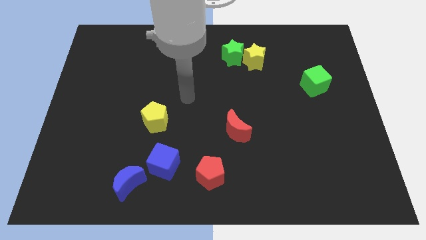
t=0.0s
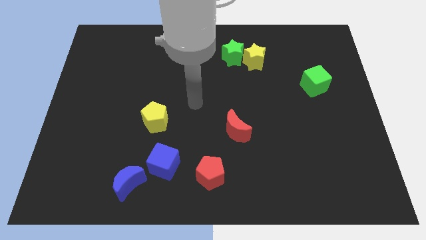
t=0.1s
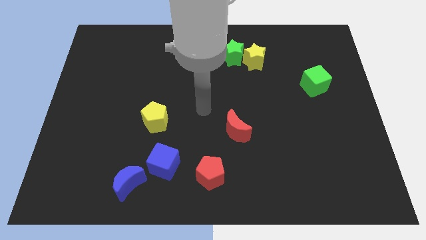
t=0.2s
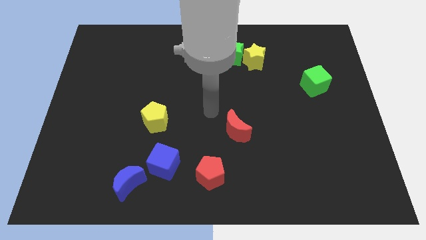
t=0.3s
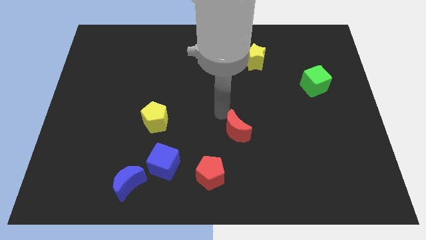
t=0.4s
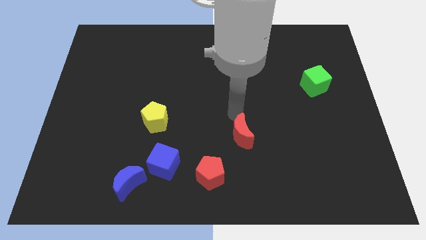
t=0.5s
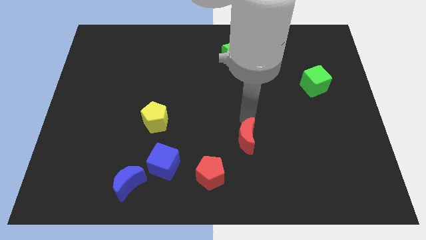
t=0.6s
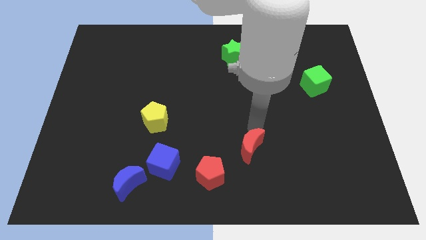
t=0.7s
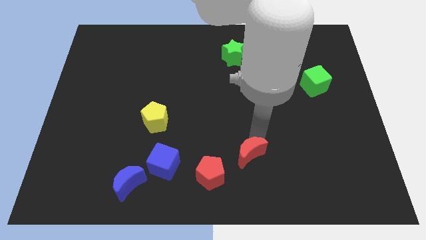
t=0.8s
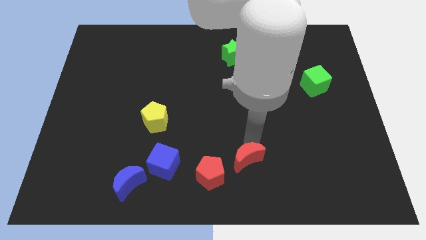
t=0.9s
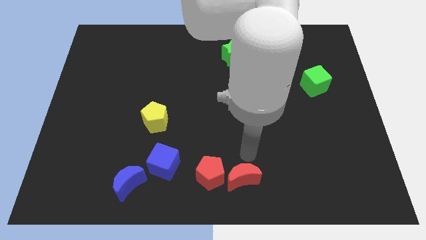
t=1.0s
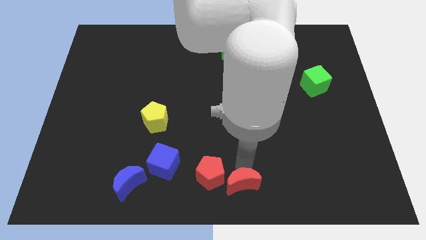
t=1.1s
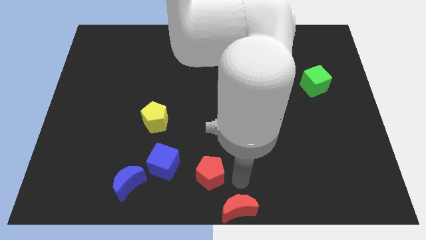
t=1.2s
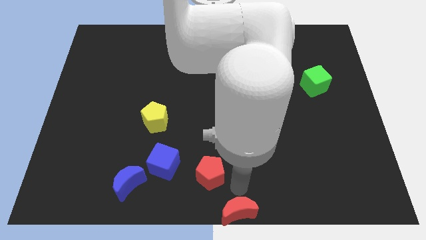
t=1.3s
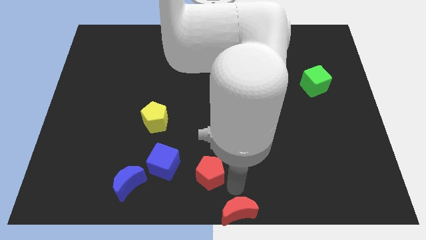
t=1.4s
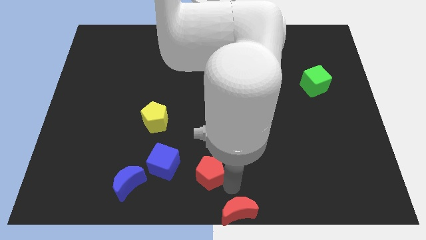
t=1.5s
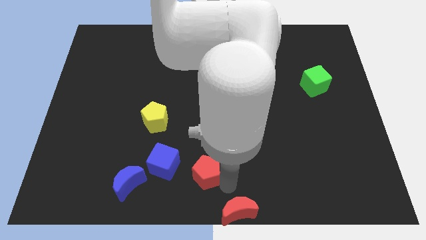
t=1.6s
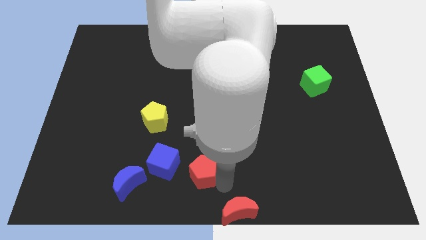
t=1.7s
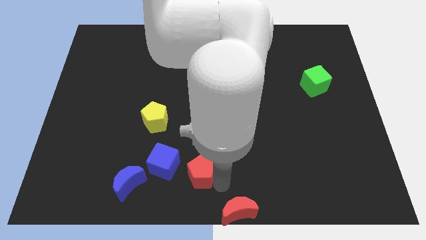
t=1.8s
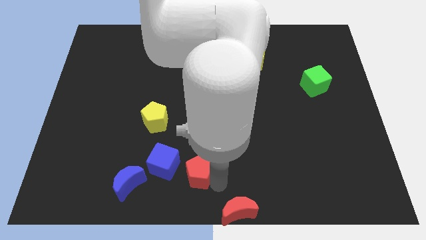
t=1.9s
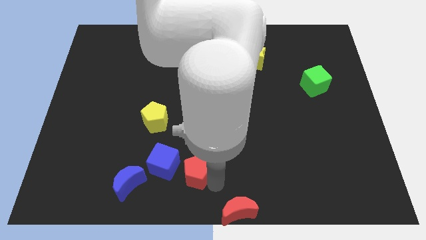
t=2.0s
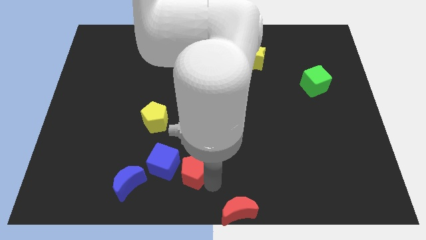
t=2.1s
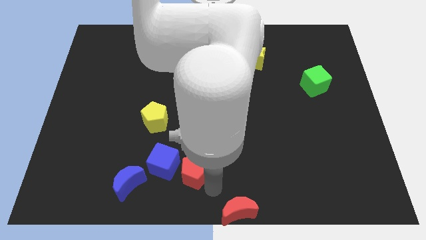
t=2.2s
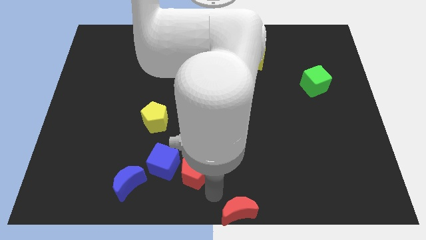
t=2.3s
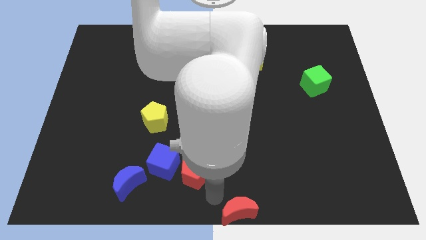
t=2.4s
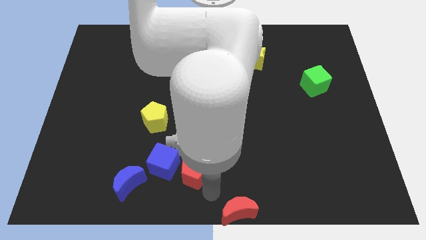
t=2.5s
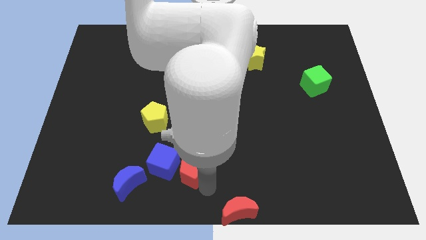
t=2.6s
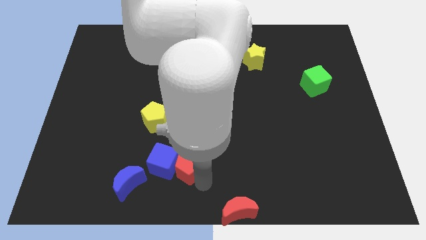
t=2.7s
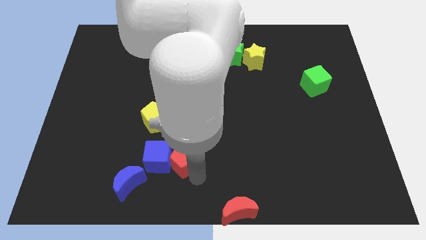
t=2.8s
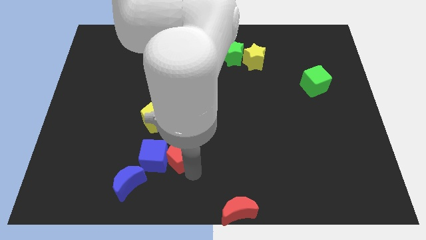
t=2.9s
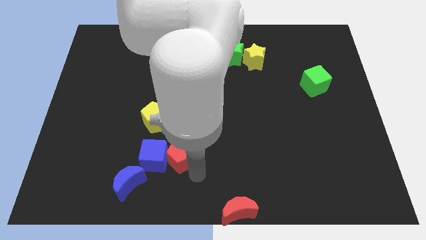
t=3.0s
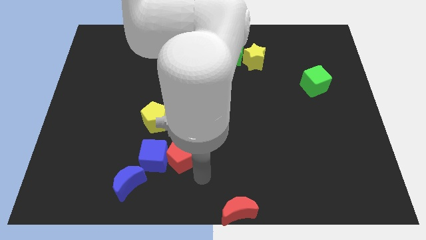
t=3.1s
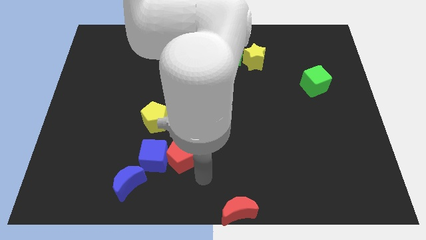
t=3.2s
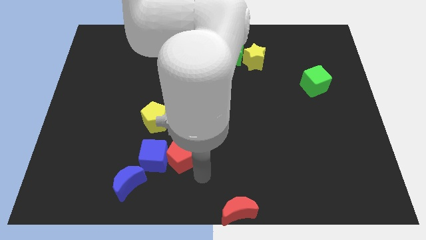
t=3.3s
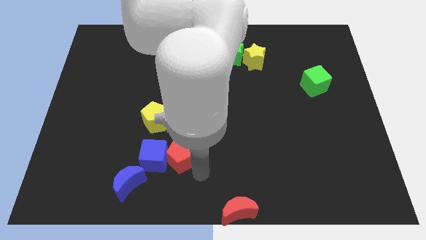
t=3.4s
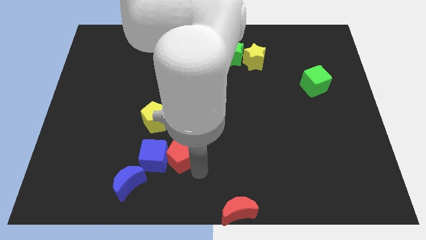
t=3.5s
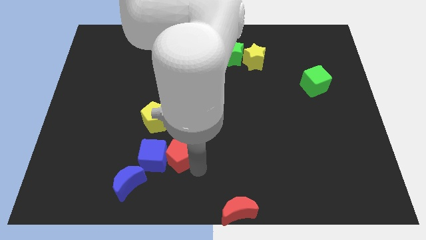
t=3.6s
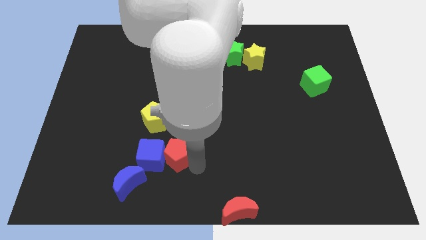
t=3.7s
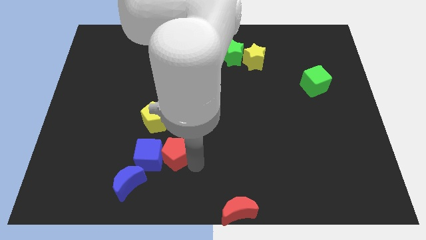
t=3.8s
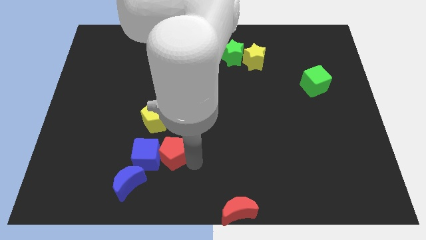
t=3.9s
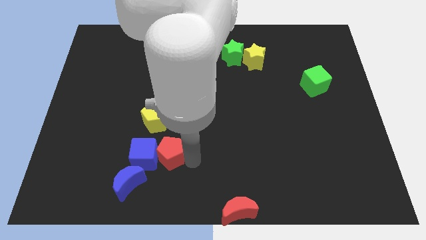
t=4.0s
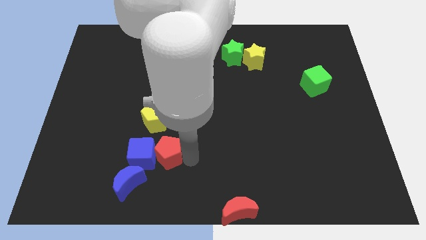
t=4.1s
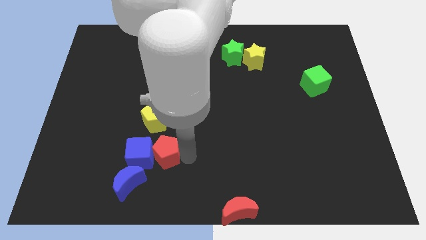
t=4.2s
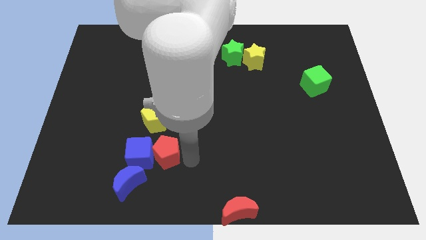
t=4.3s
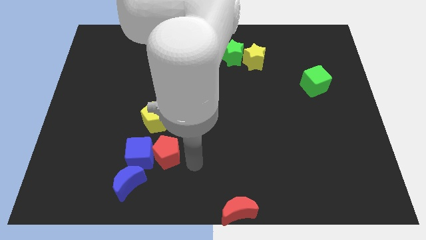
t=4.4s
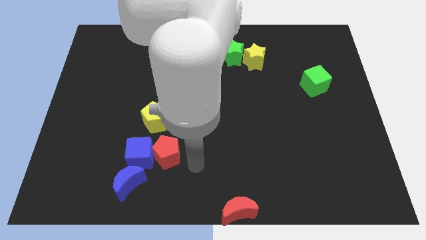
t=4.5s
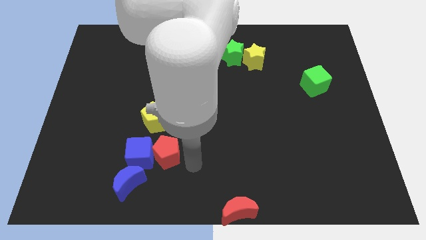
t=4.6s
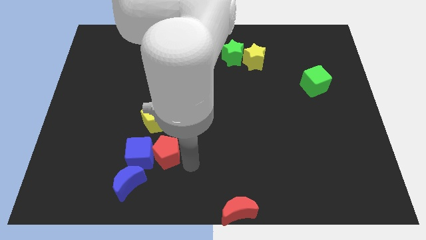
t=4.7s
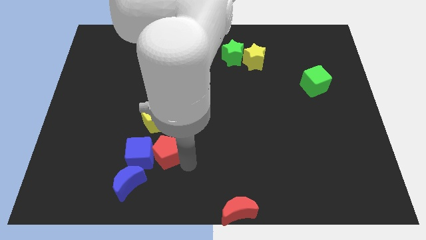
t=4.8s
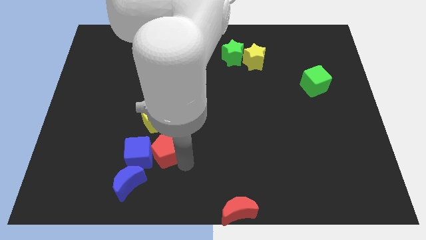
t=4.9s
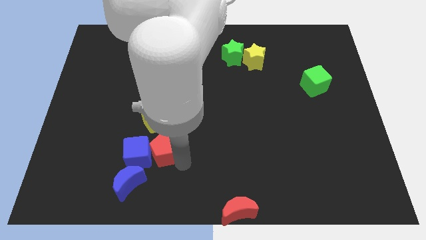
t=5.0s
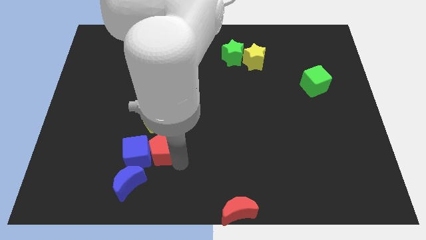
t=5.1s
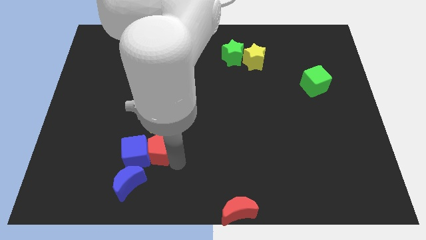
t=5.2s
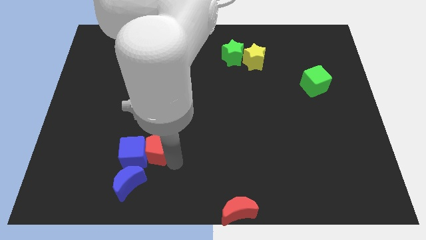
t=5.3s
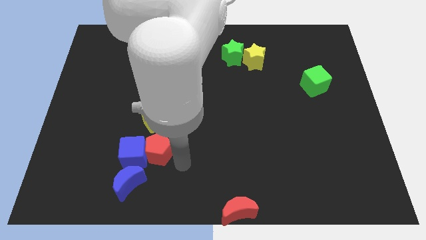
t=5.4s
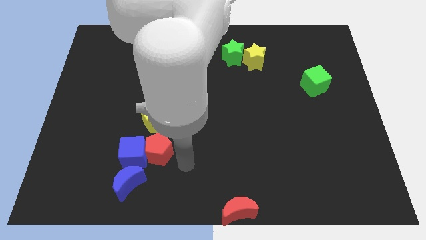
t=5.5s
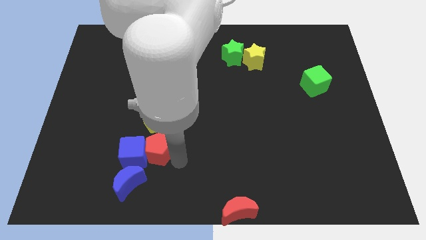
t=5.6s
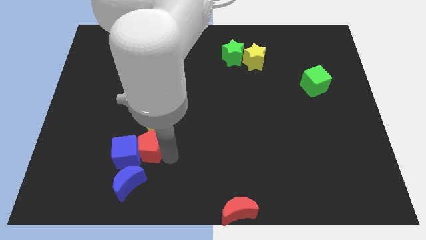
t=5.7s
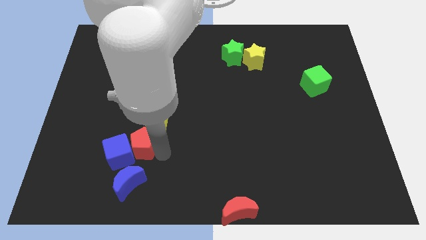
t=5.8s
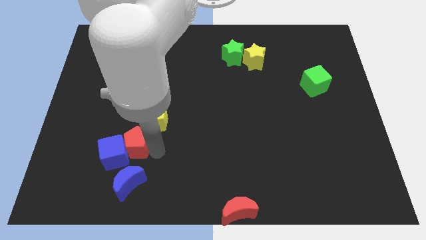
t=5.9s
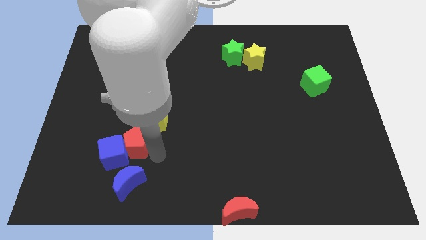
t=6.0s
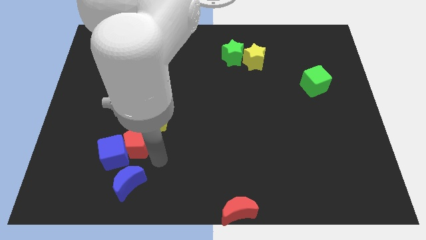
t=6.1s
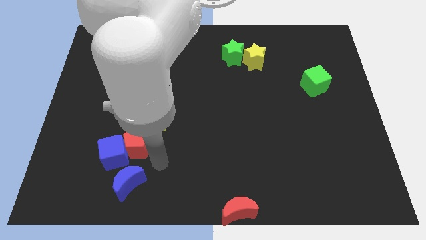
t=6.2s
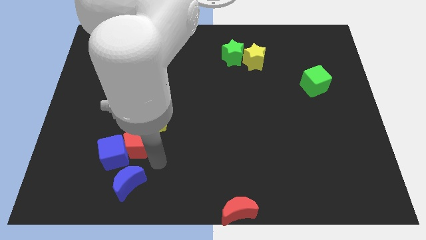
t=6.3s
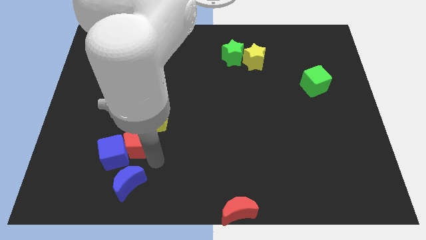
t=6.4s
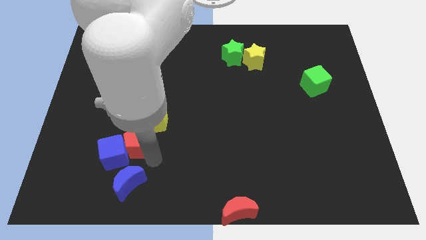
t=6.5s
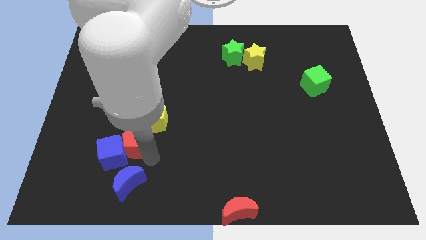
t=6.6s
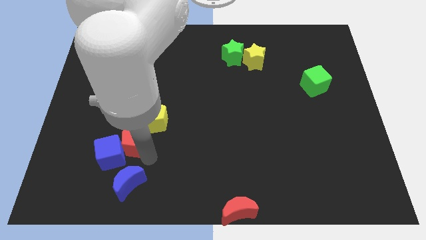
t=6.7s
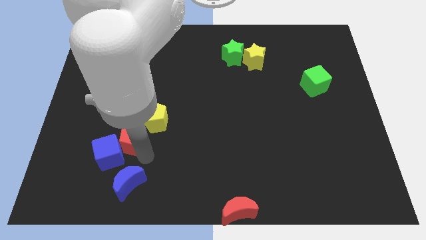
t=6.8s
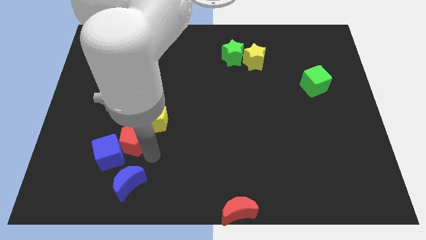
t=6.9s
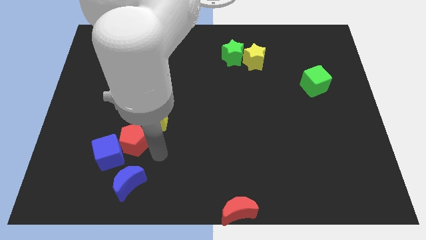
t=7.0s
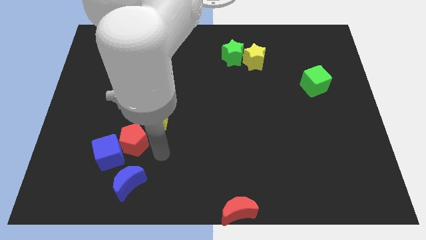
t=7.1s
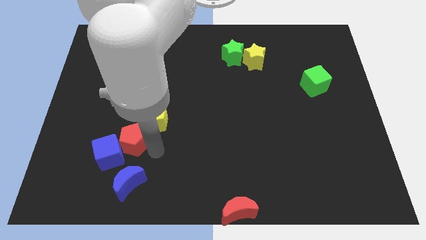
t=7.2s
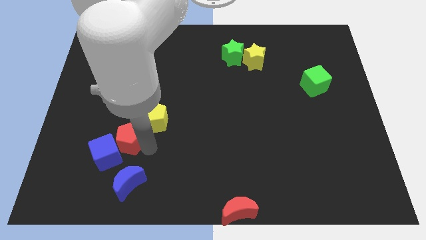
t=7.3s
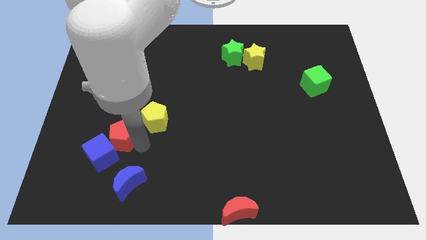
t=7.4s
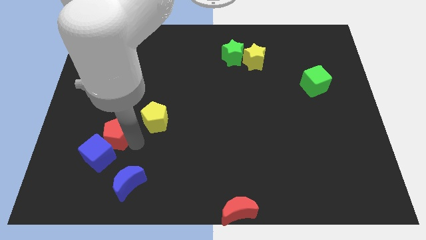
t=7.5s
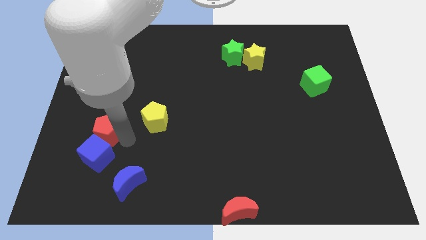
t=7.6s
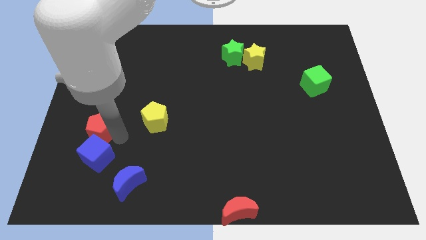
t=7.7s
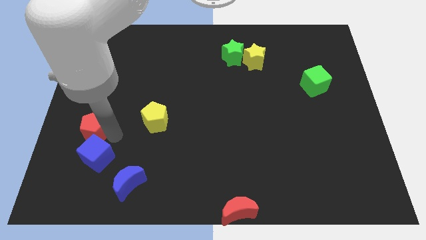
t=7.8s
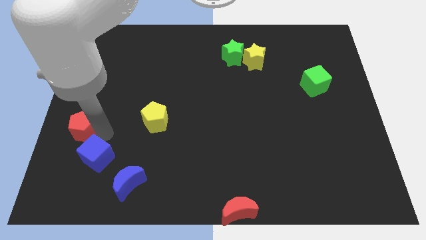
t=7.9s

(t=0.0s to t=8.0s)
push the red pentagon to the center left
